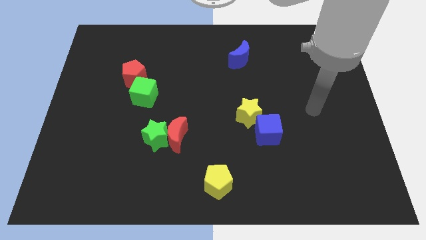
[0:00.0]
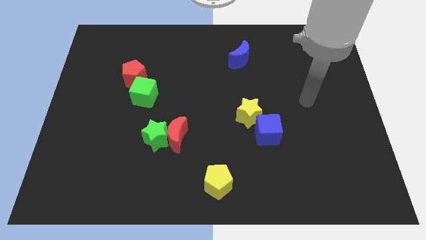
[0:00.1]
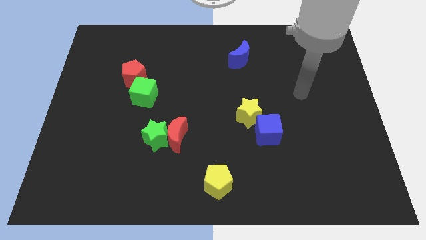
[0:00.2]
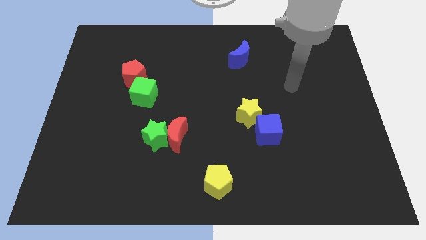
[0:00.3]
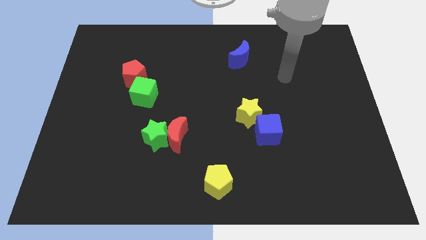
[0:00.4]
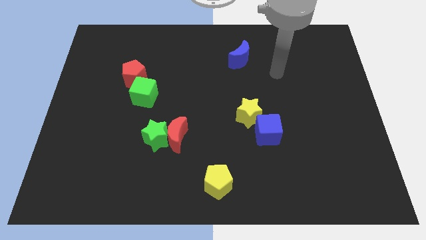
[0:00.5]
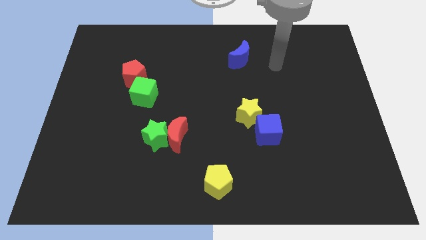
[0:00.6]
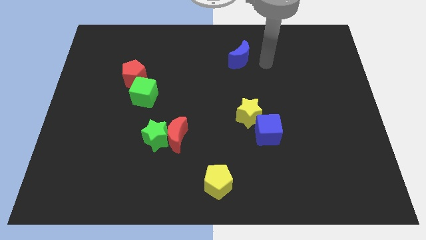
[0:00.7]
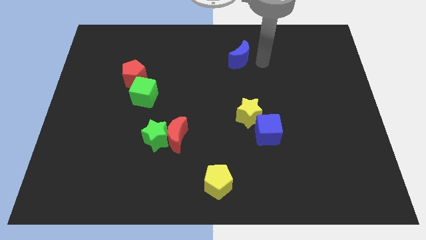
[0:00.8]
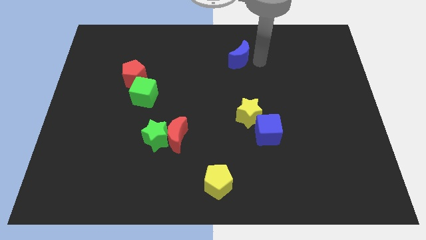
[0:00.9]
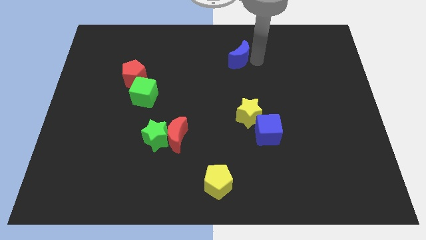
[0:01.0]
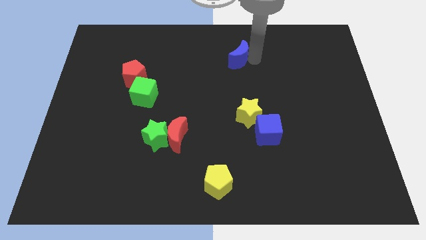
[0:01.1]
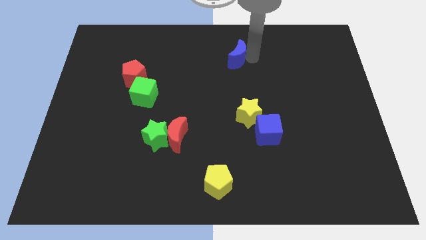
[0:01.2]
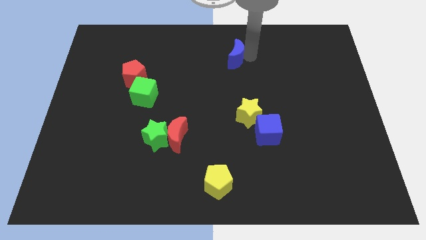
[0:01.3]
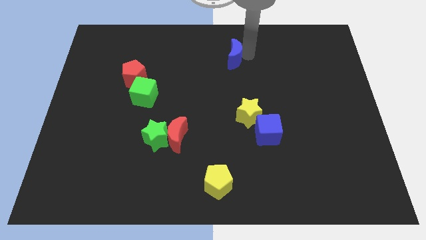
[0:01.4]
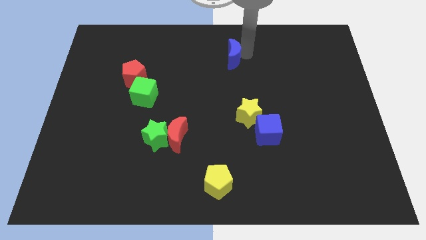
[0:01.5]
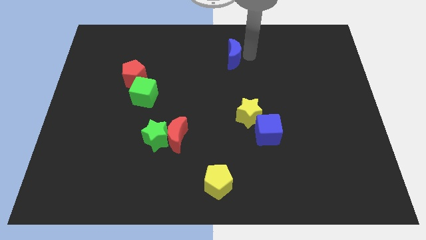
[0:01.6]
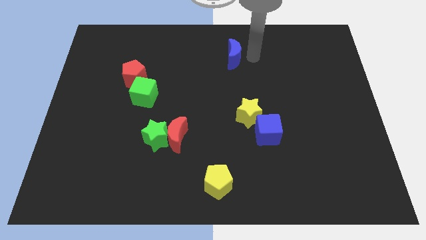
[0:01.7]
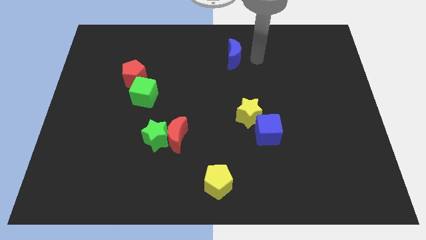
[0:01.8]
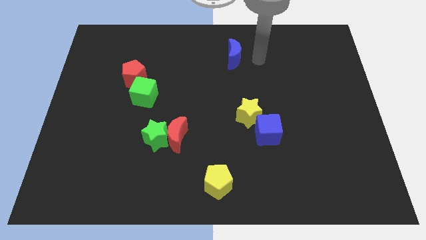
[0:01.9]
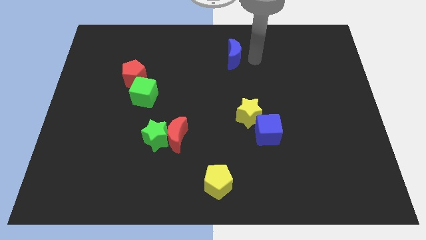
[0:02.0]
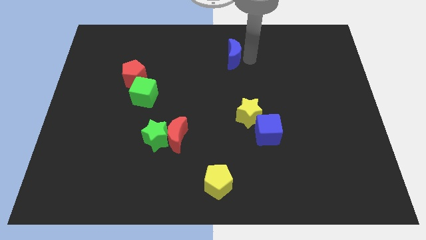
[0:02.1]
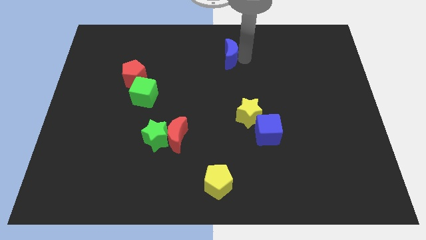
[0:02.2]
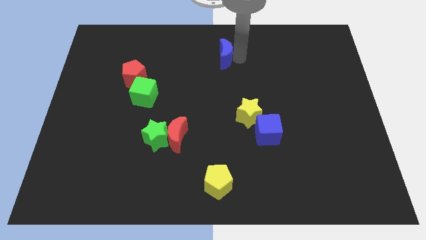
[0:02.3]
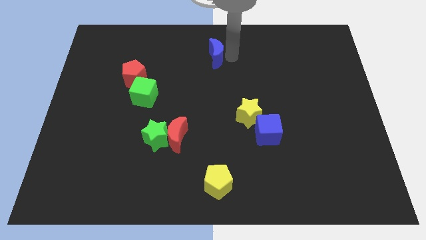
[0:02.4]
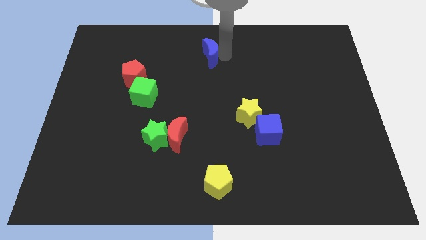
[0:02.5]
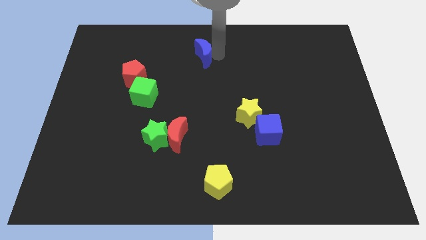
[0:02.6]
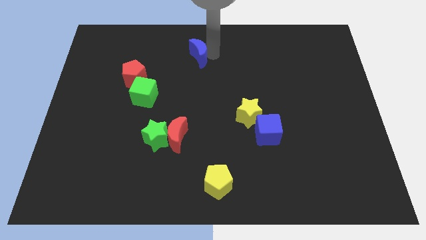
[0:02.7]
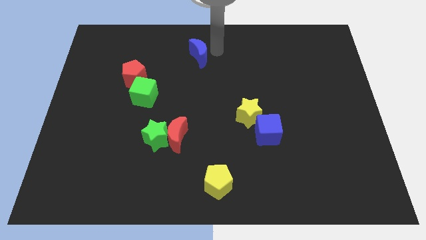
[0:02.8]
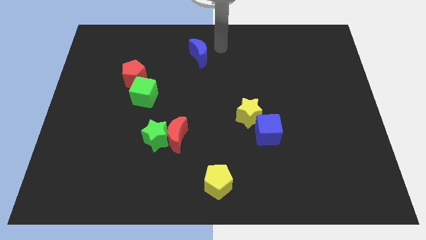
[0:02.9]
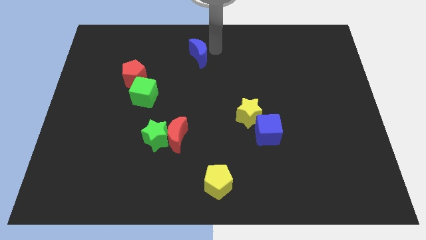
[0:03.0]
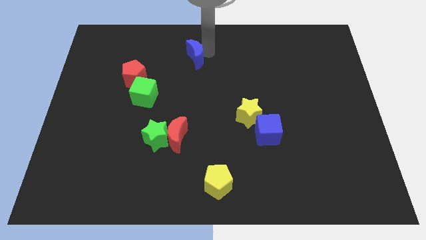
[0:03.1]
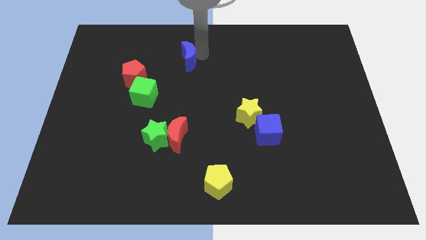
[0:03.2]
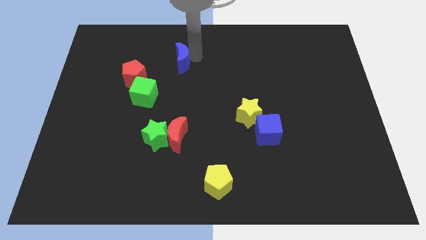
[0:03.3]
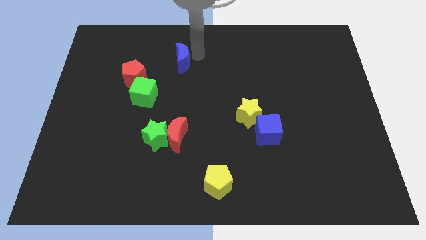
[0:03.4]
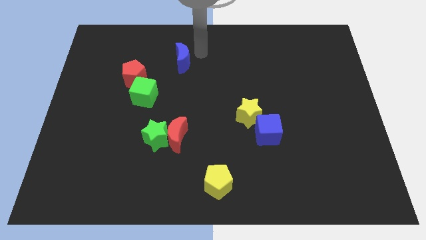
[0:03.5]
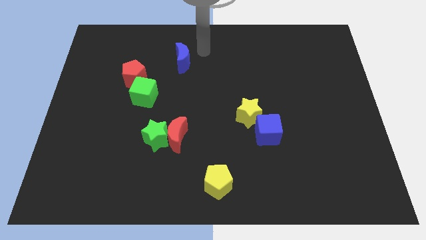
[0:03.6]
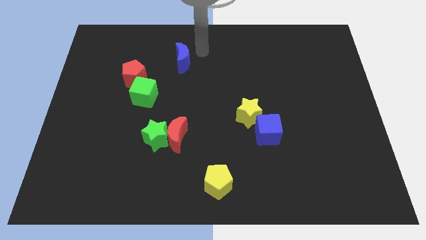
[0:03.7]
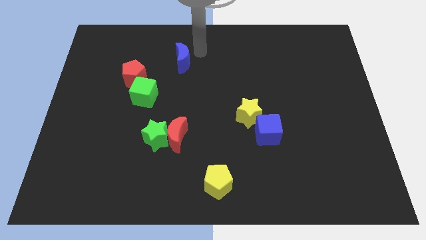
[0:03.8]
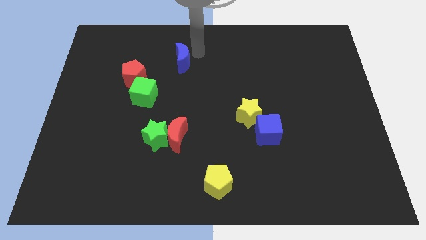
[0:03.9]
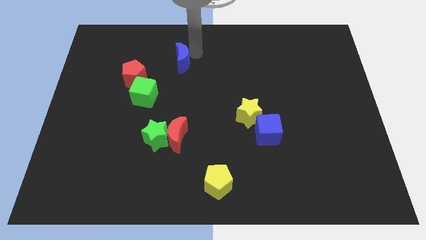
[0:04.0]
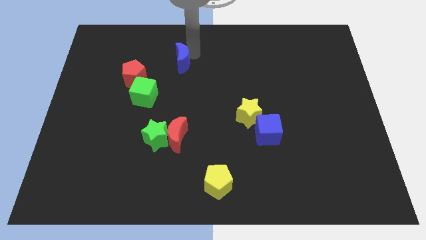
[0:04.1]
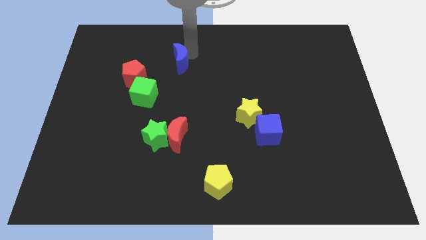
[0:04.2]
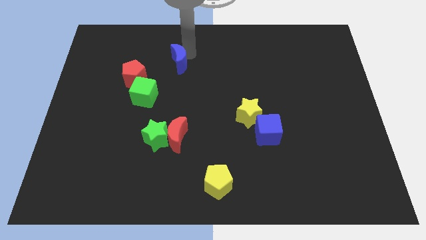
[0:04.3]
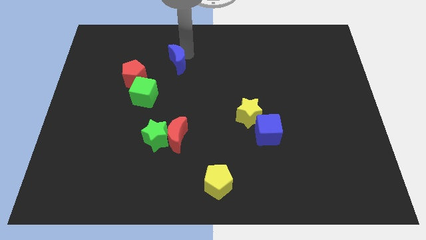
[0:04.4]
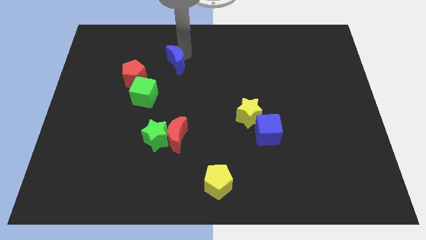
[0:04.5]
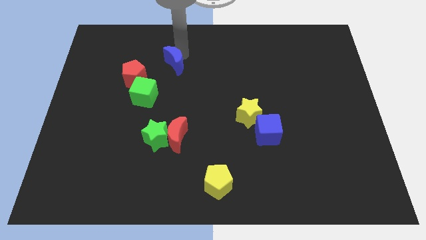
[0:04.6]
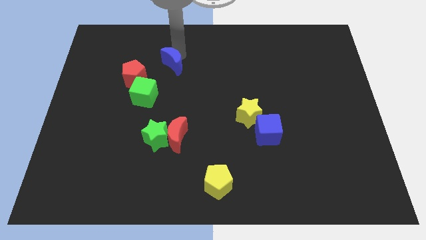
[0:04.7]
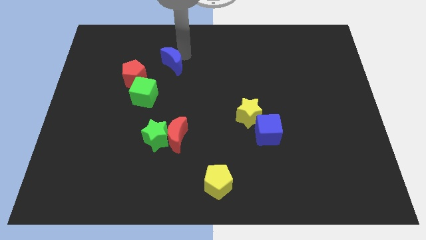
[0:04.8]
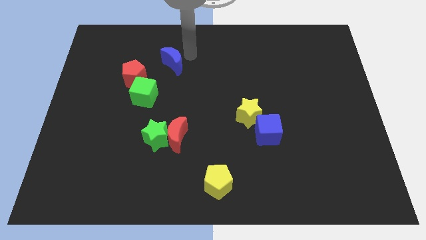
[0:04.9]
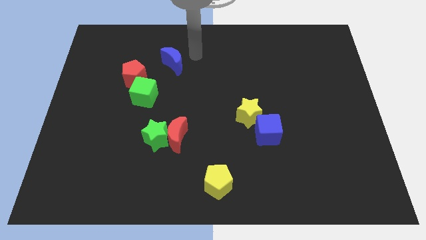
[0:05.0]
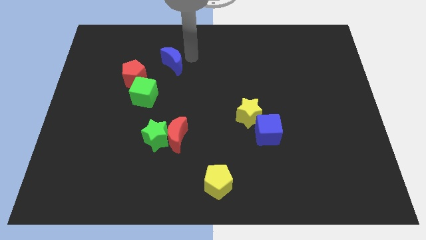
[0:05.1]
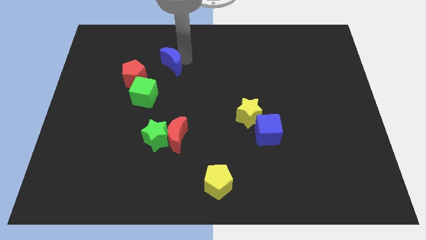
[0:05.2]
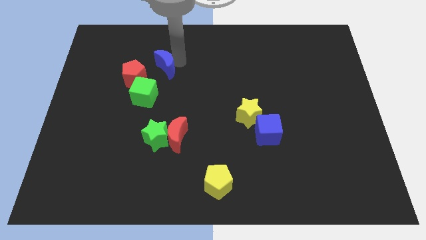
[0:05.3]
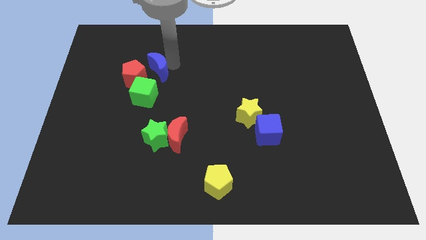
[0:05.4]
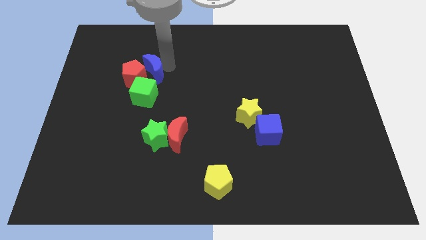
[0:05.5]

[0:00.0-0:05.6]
put the blue moon to the red pentagon

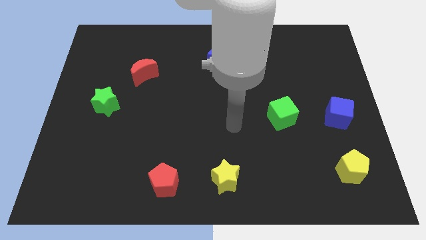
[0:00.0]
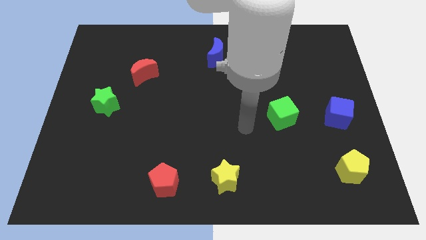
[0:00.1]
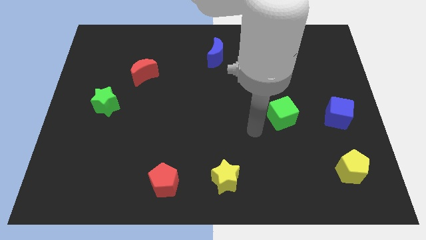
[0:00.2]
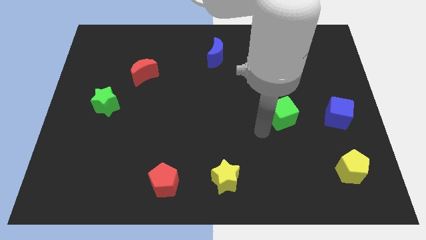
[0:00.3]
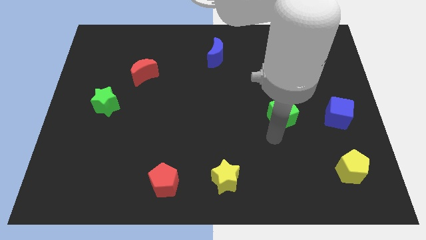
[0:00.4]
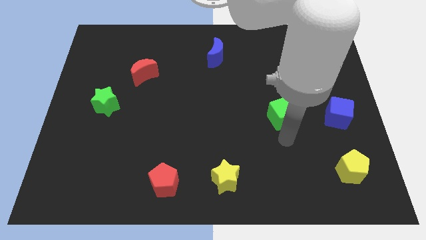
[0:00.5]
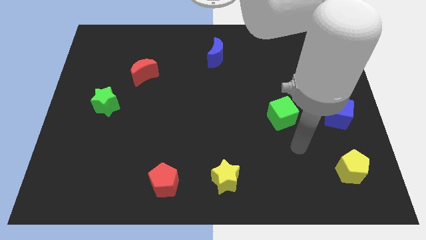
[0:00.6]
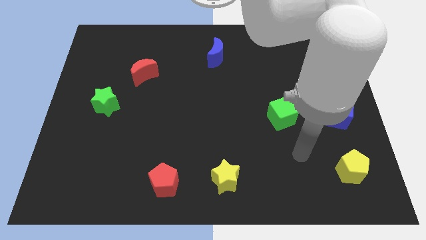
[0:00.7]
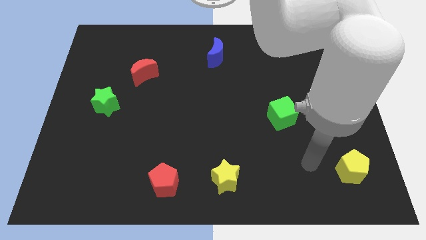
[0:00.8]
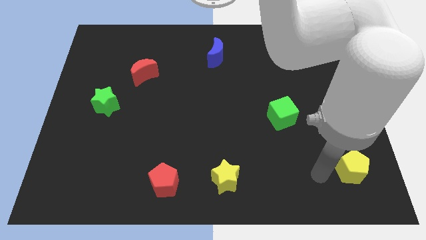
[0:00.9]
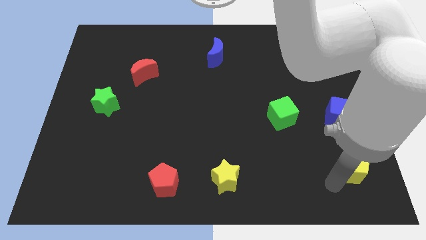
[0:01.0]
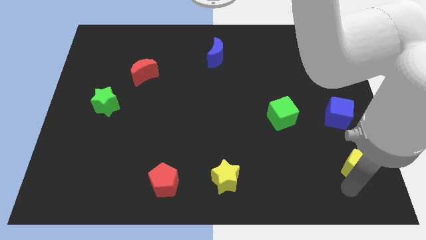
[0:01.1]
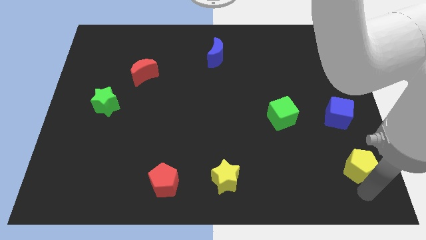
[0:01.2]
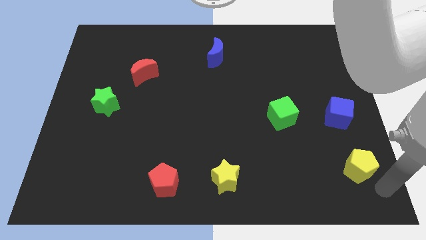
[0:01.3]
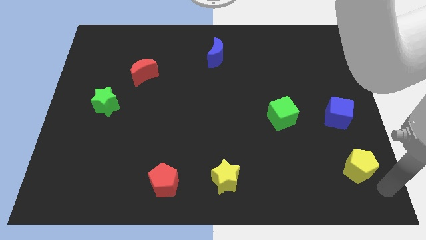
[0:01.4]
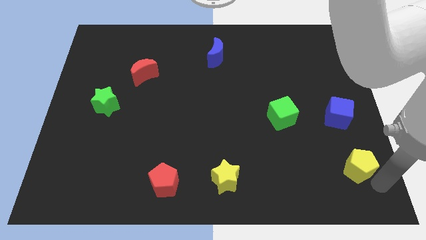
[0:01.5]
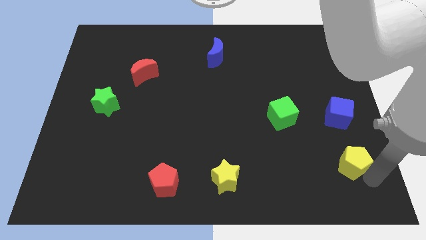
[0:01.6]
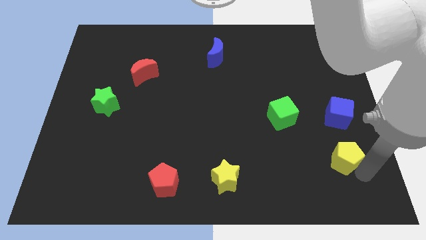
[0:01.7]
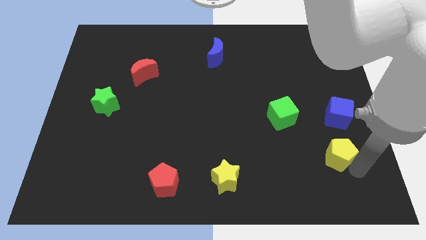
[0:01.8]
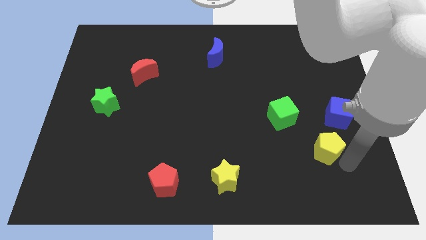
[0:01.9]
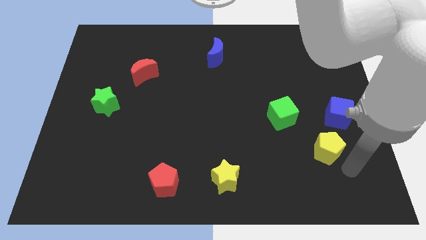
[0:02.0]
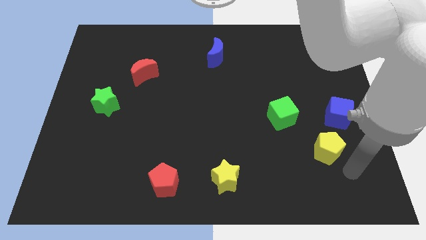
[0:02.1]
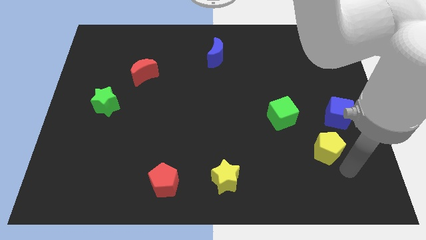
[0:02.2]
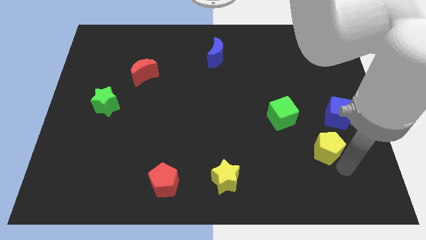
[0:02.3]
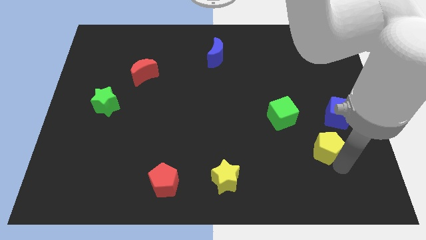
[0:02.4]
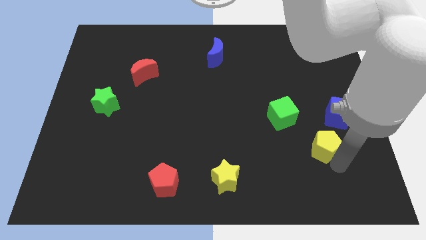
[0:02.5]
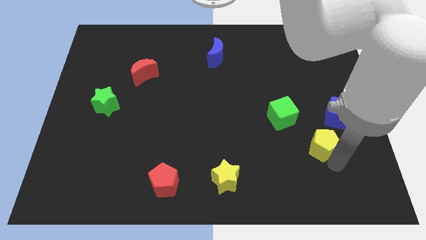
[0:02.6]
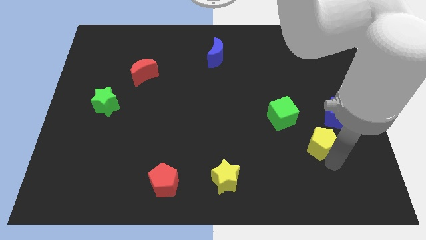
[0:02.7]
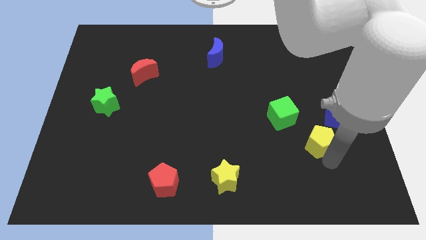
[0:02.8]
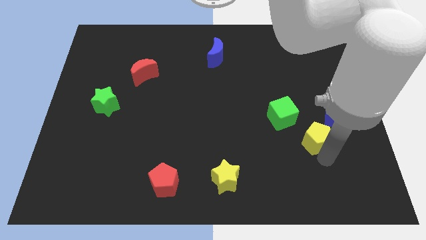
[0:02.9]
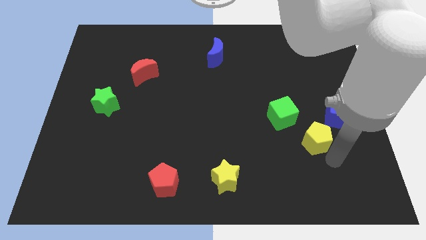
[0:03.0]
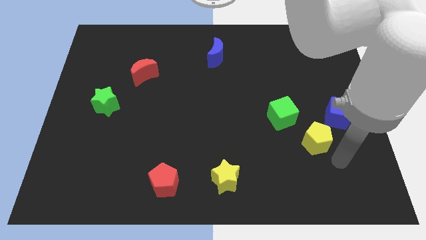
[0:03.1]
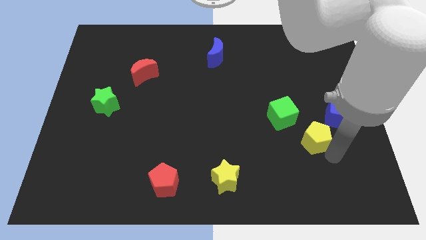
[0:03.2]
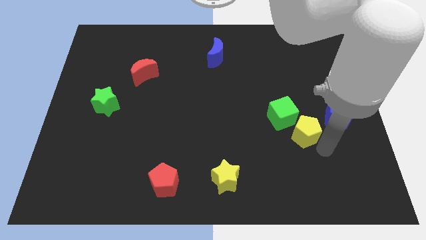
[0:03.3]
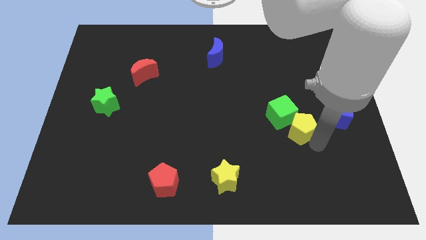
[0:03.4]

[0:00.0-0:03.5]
move the yellow pentagon next to the green cube
